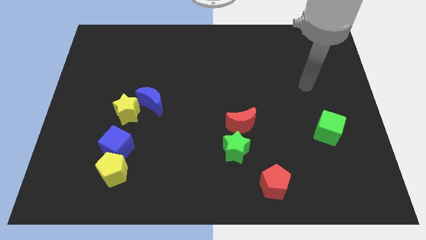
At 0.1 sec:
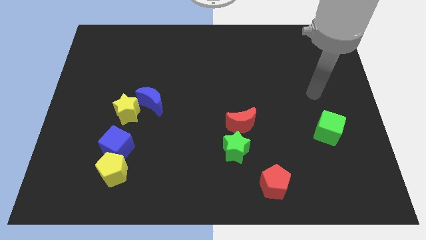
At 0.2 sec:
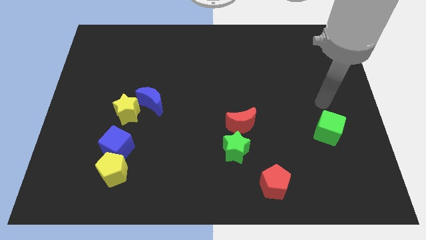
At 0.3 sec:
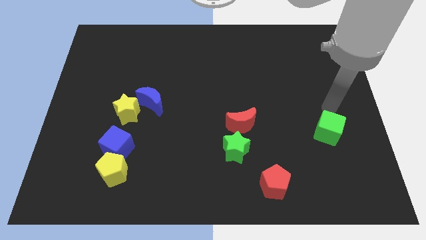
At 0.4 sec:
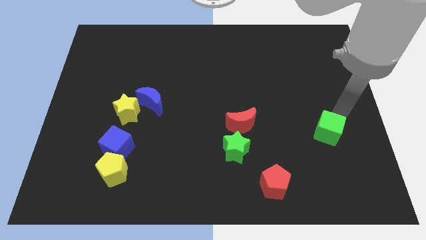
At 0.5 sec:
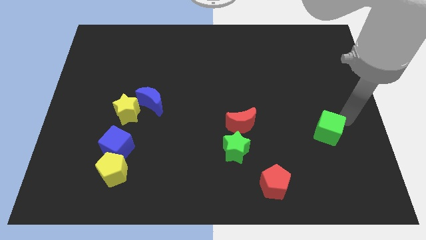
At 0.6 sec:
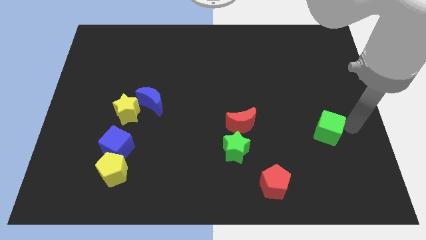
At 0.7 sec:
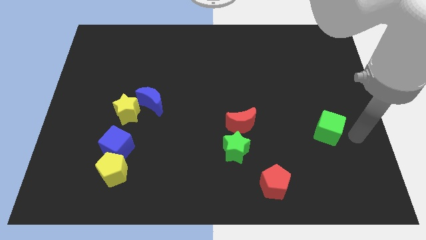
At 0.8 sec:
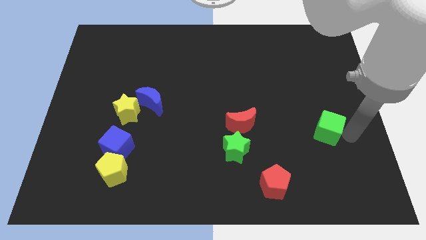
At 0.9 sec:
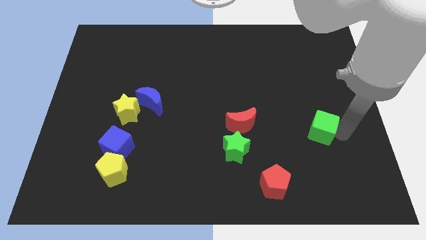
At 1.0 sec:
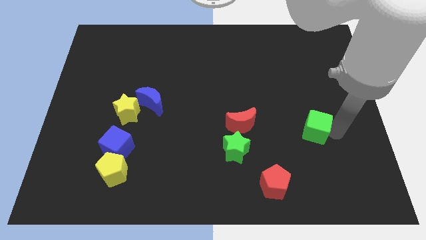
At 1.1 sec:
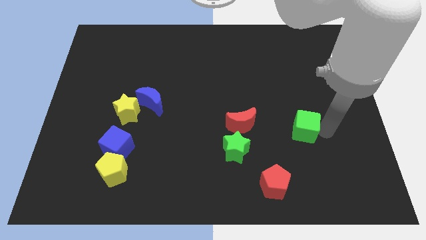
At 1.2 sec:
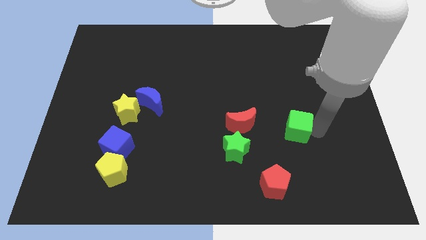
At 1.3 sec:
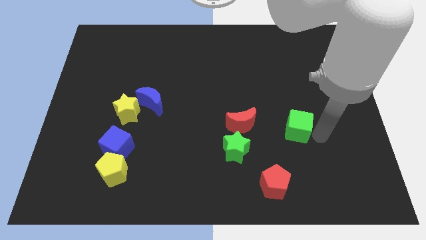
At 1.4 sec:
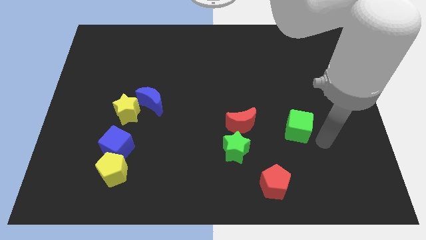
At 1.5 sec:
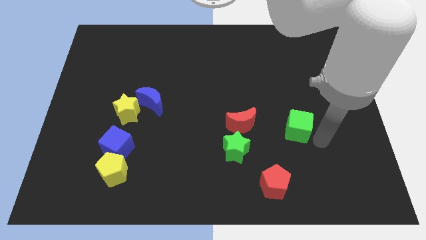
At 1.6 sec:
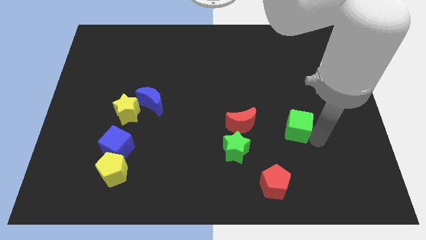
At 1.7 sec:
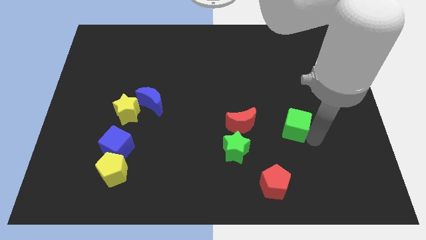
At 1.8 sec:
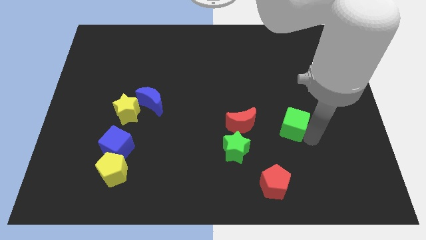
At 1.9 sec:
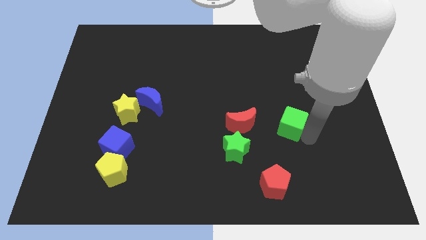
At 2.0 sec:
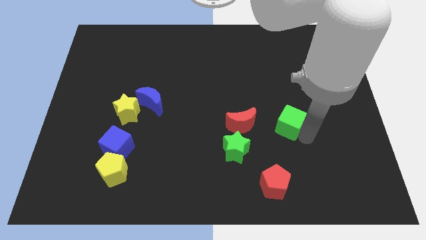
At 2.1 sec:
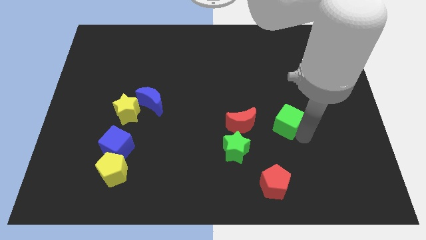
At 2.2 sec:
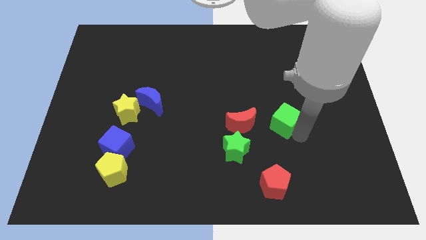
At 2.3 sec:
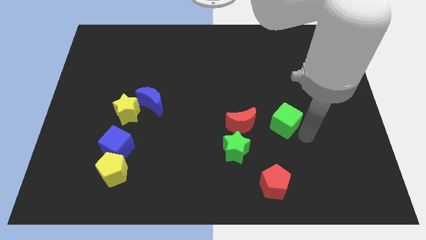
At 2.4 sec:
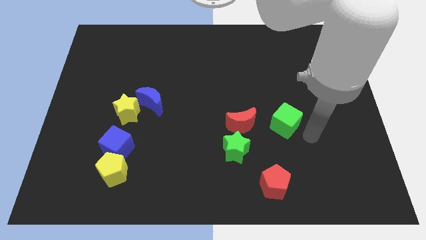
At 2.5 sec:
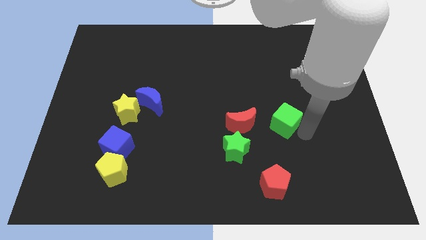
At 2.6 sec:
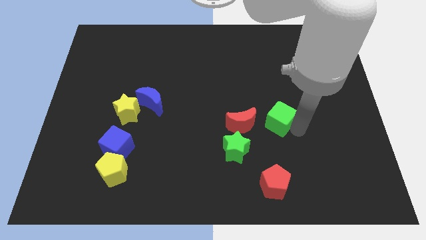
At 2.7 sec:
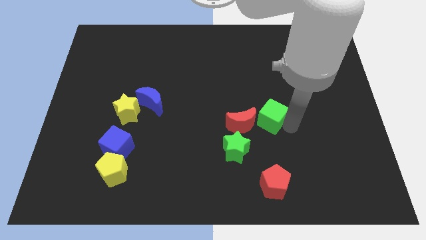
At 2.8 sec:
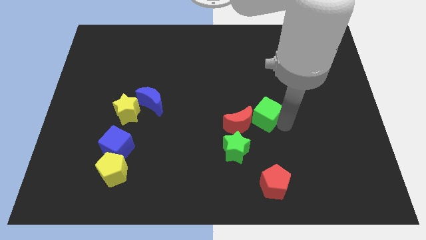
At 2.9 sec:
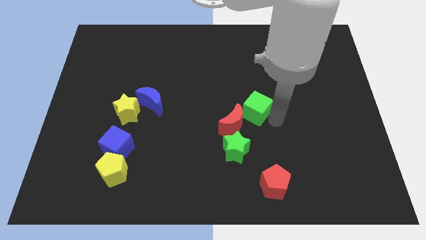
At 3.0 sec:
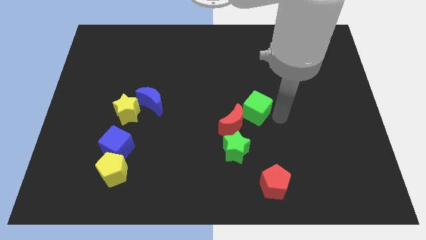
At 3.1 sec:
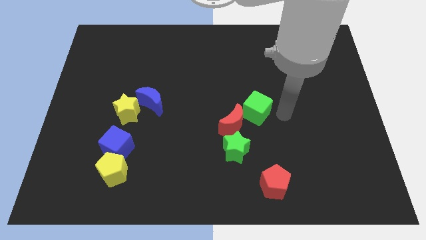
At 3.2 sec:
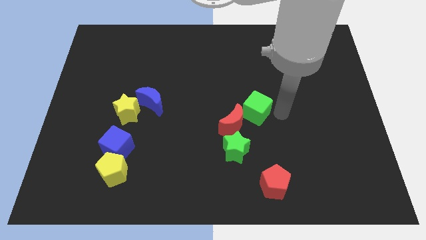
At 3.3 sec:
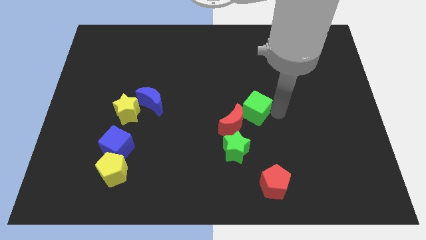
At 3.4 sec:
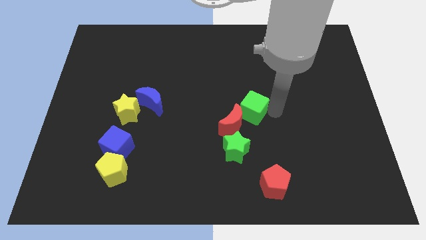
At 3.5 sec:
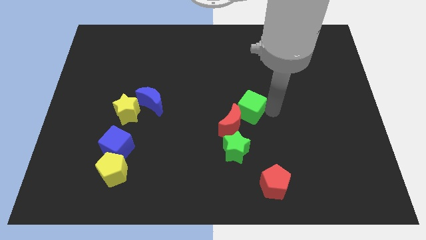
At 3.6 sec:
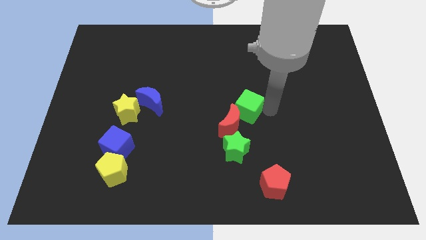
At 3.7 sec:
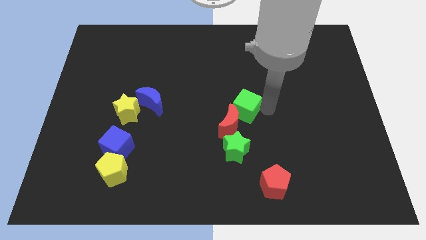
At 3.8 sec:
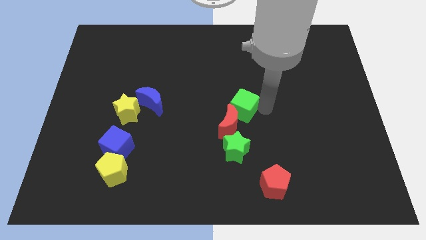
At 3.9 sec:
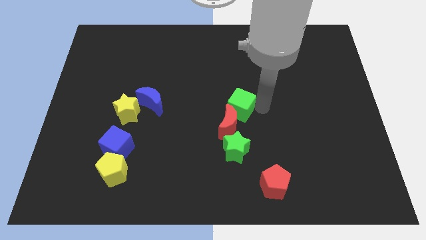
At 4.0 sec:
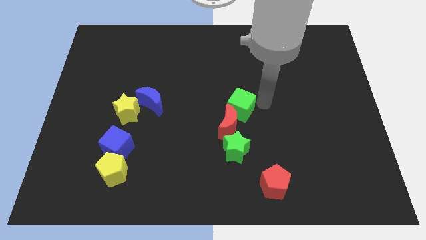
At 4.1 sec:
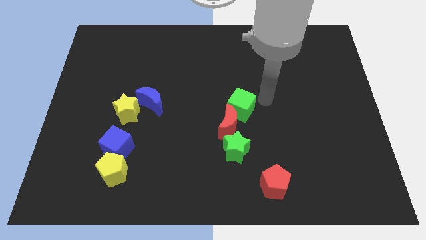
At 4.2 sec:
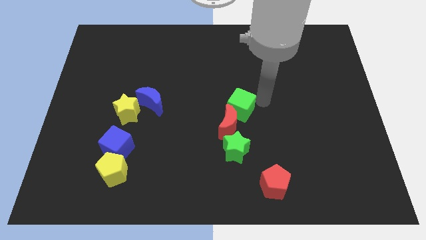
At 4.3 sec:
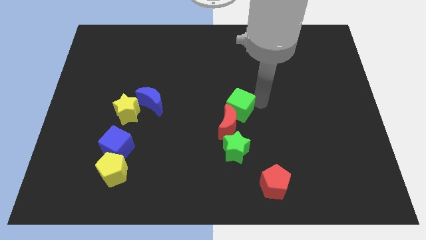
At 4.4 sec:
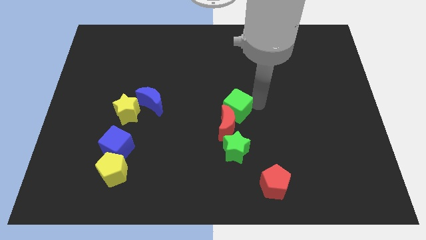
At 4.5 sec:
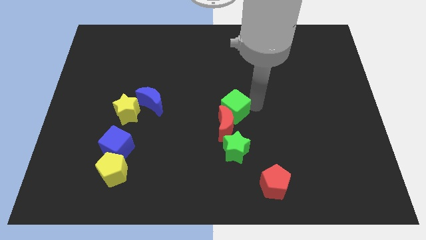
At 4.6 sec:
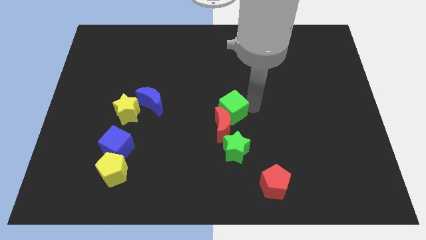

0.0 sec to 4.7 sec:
push the green cube to the left

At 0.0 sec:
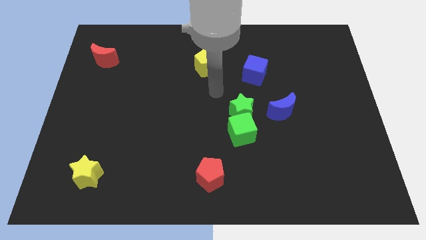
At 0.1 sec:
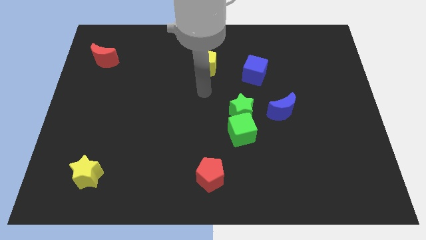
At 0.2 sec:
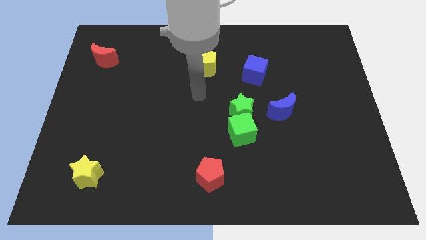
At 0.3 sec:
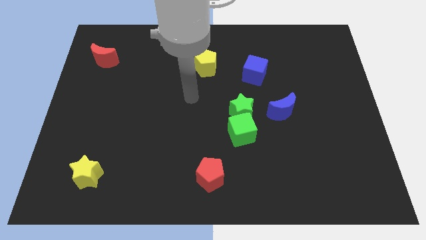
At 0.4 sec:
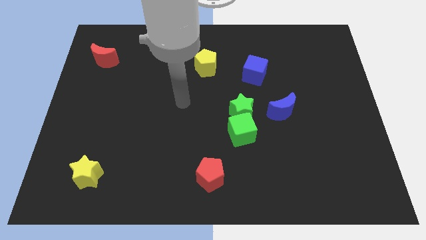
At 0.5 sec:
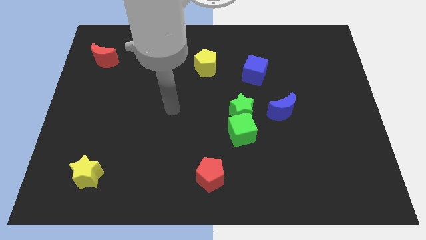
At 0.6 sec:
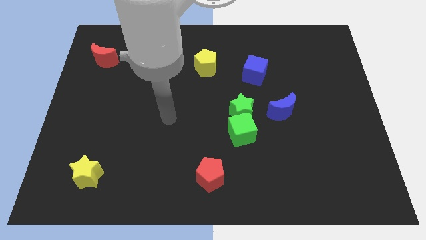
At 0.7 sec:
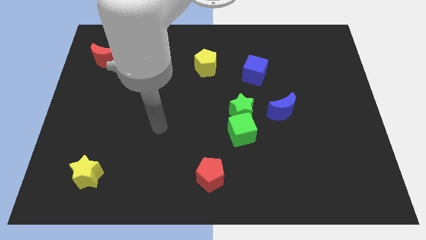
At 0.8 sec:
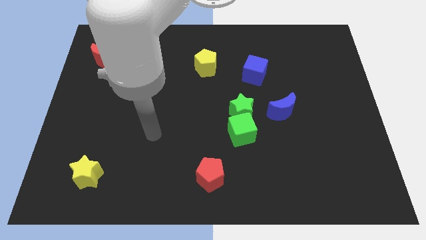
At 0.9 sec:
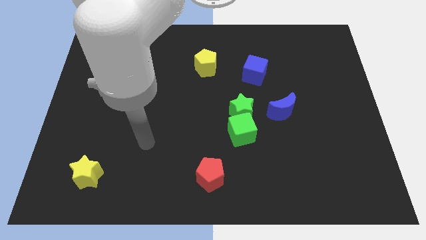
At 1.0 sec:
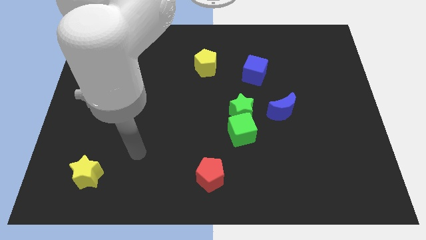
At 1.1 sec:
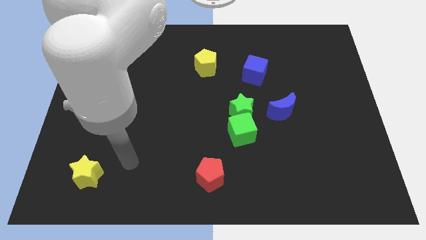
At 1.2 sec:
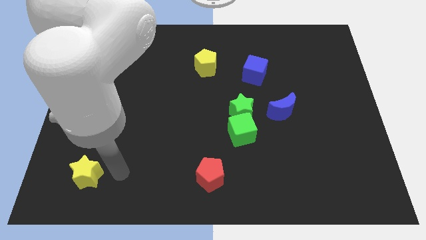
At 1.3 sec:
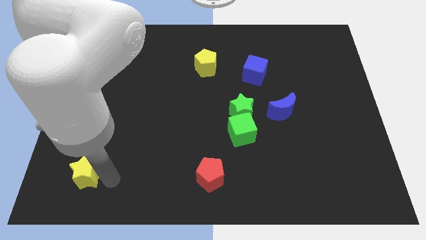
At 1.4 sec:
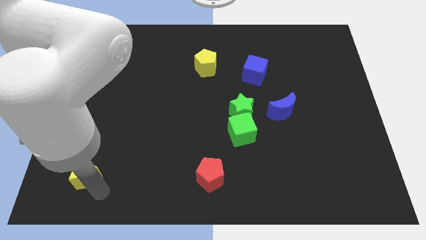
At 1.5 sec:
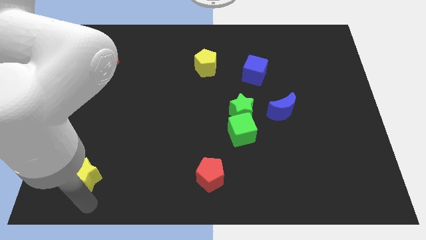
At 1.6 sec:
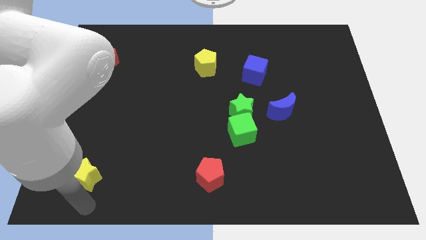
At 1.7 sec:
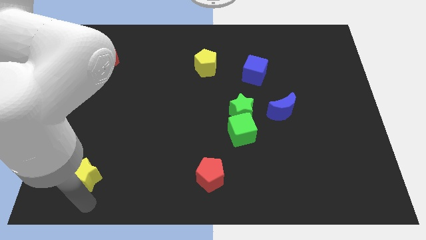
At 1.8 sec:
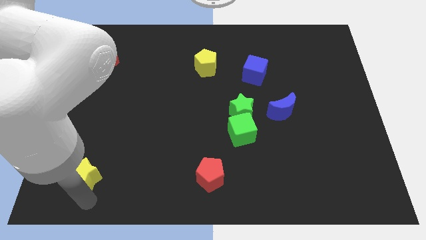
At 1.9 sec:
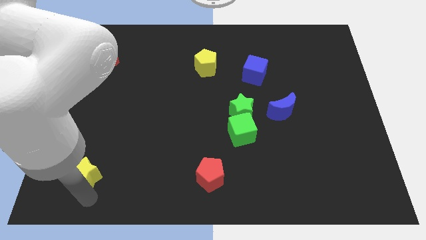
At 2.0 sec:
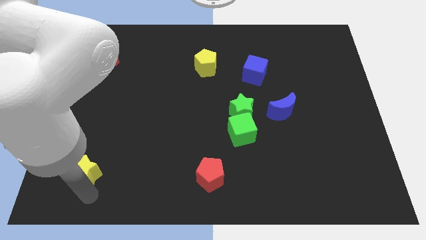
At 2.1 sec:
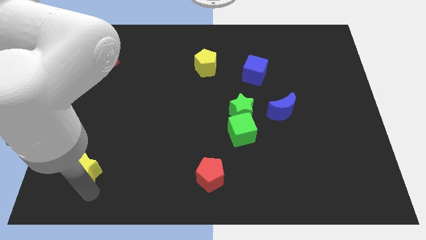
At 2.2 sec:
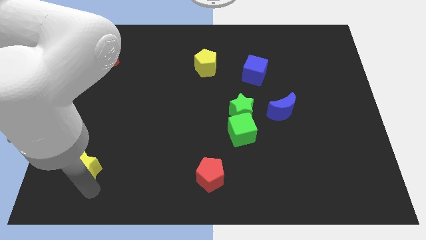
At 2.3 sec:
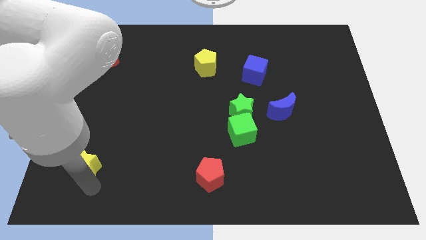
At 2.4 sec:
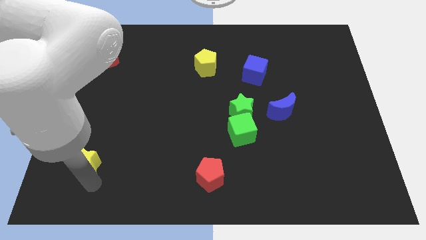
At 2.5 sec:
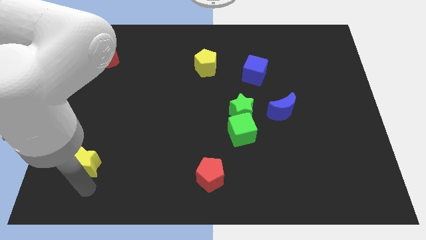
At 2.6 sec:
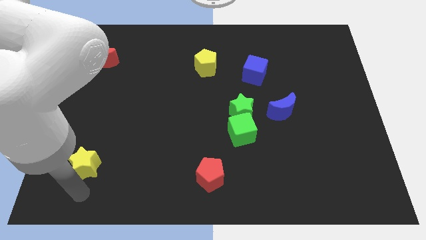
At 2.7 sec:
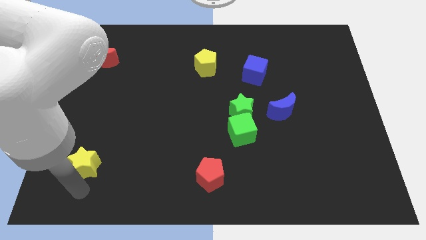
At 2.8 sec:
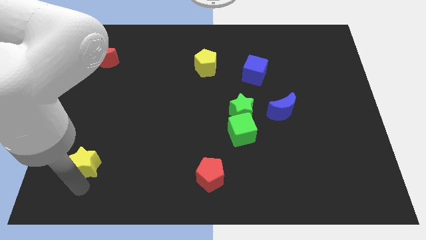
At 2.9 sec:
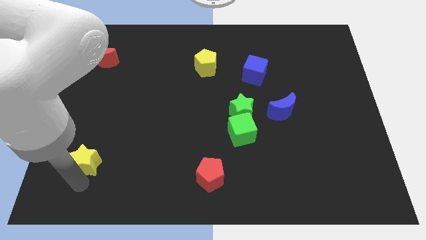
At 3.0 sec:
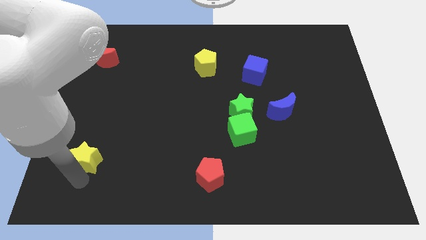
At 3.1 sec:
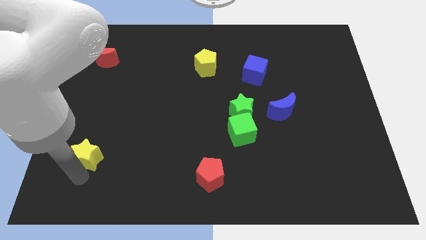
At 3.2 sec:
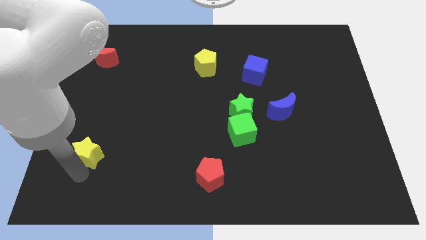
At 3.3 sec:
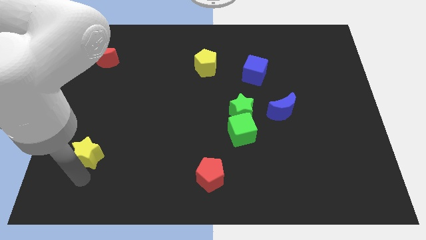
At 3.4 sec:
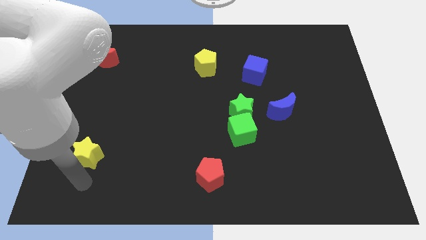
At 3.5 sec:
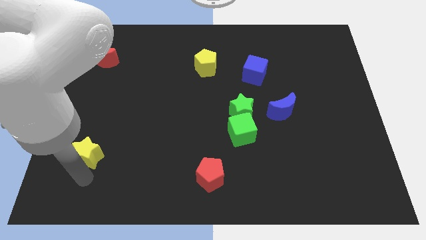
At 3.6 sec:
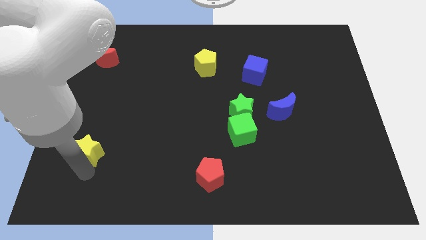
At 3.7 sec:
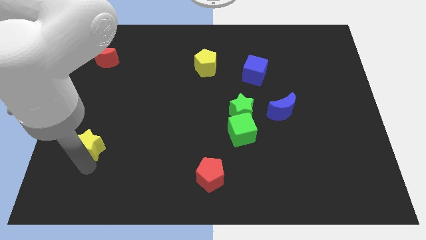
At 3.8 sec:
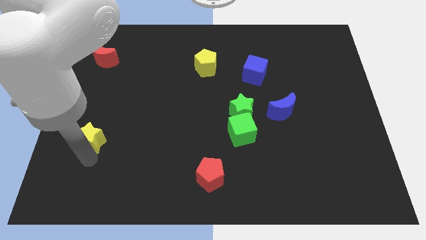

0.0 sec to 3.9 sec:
push the yellow star up a little
